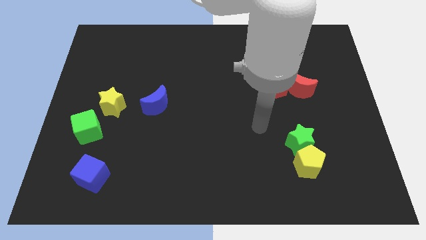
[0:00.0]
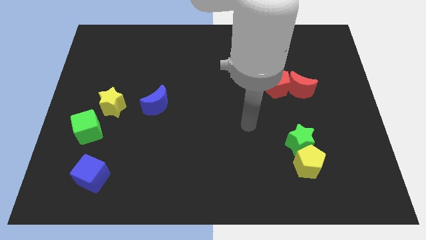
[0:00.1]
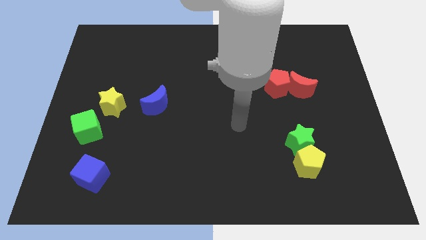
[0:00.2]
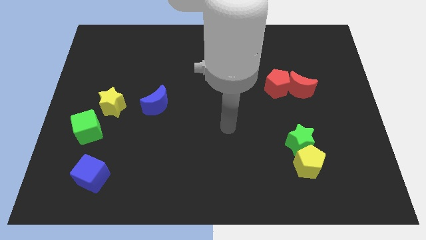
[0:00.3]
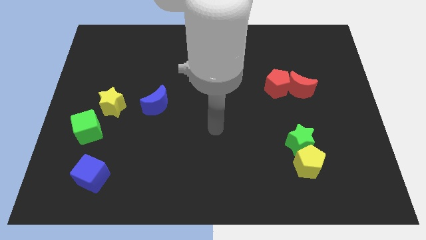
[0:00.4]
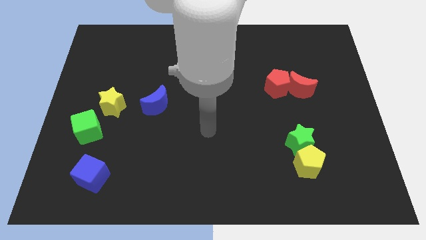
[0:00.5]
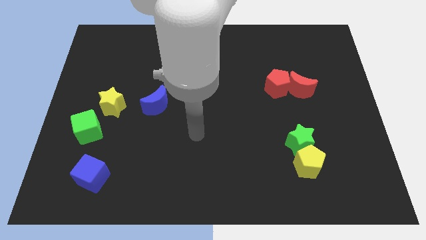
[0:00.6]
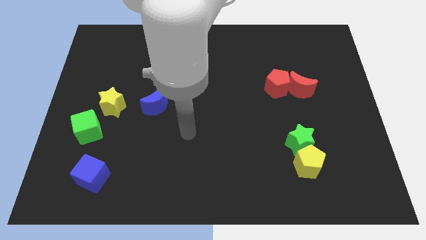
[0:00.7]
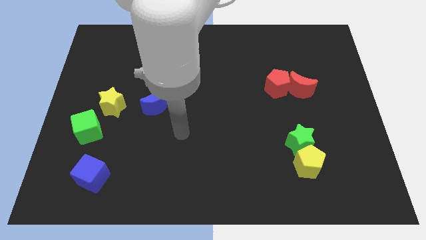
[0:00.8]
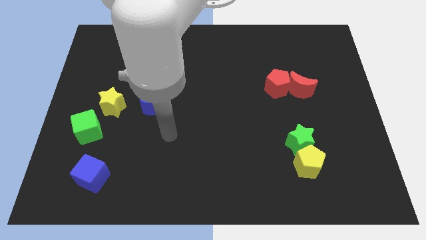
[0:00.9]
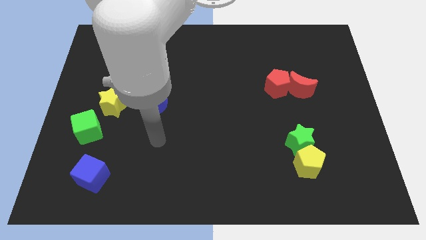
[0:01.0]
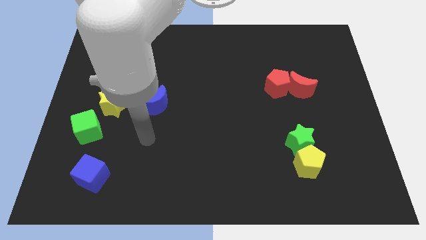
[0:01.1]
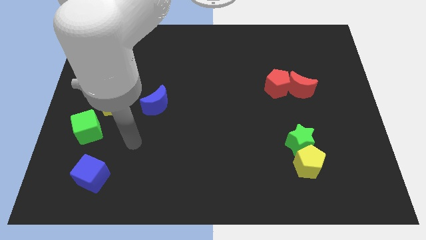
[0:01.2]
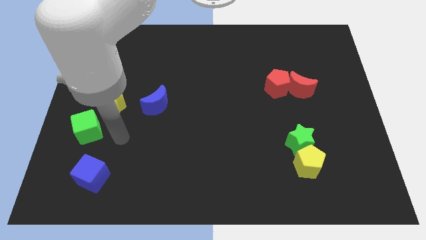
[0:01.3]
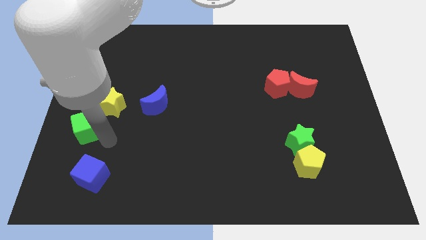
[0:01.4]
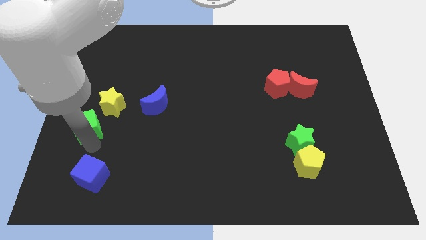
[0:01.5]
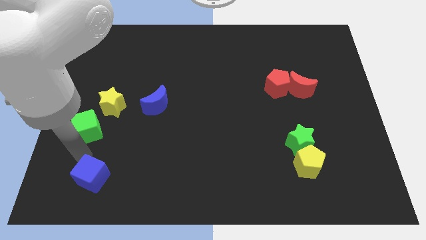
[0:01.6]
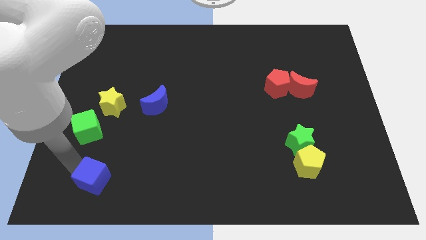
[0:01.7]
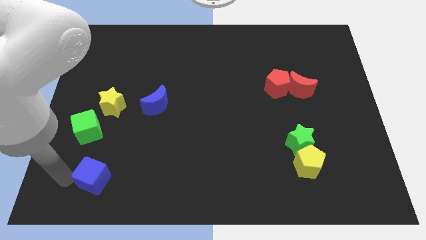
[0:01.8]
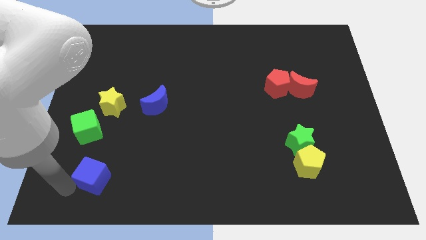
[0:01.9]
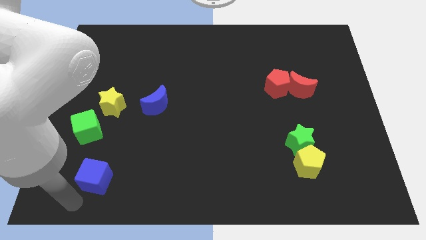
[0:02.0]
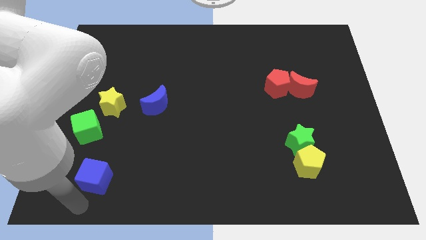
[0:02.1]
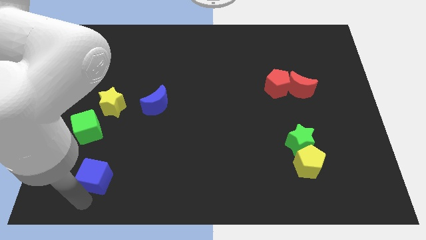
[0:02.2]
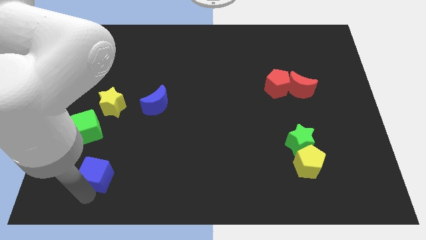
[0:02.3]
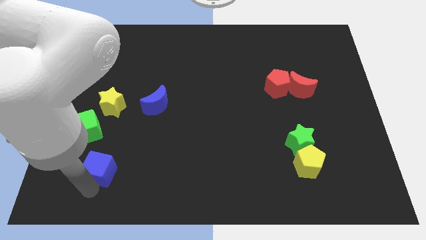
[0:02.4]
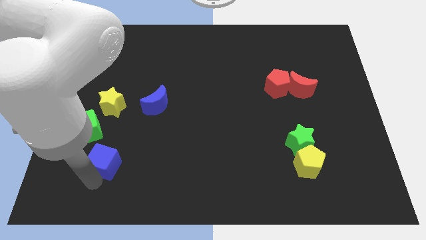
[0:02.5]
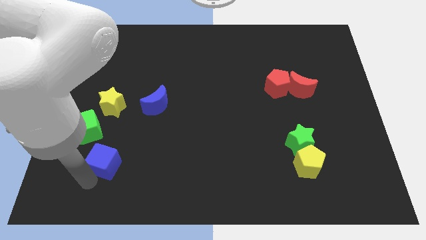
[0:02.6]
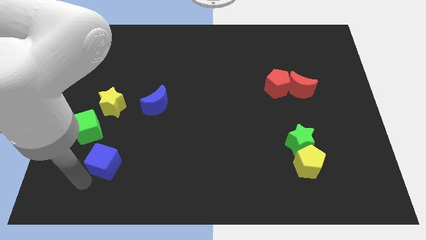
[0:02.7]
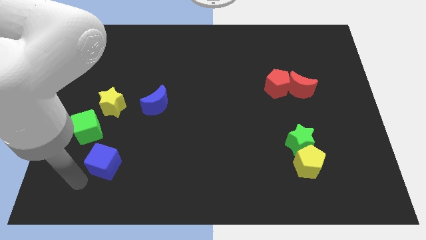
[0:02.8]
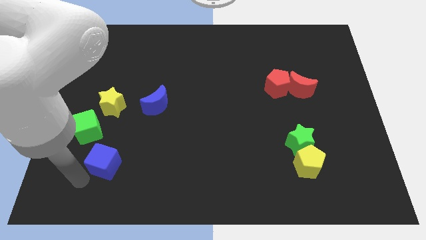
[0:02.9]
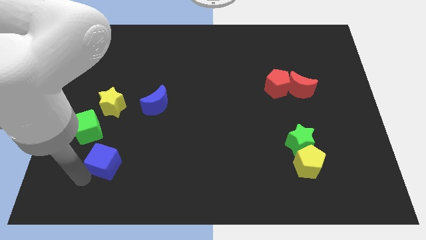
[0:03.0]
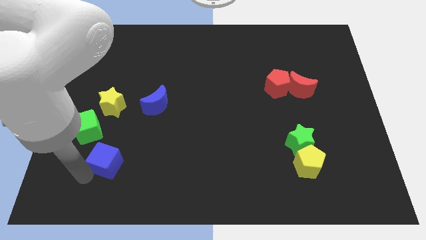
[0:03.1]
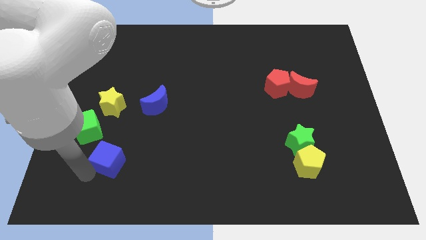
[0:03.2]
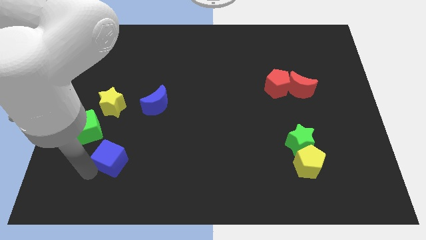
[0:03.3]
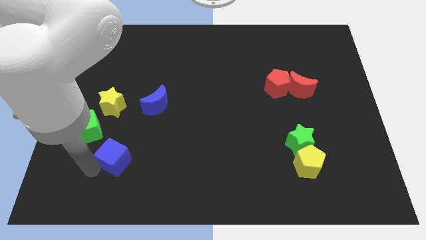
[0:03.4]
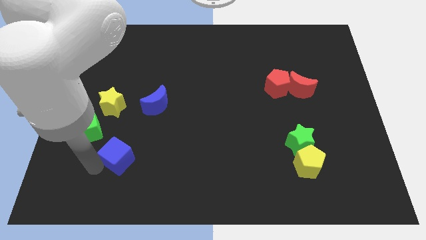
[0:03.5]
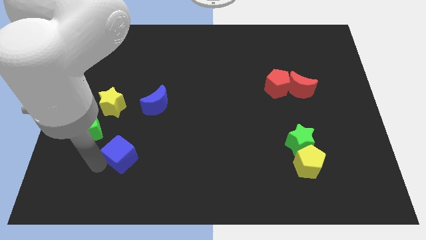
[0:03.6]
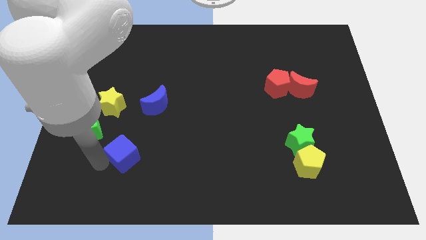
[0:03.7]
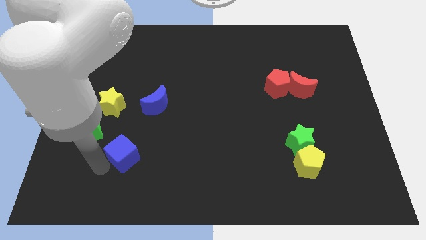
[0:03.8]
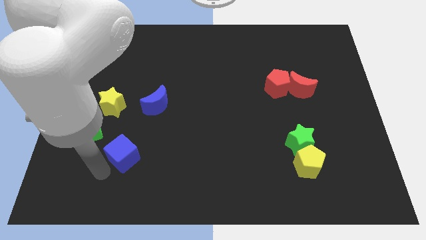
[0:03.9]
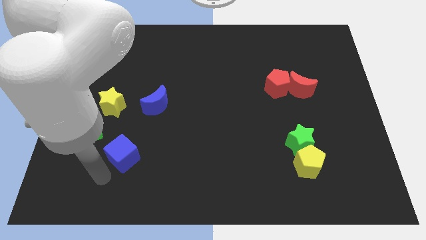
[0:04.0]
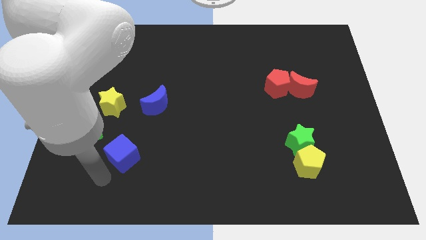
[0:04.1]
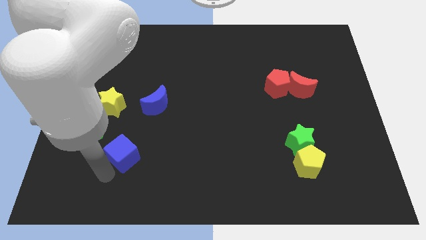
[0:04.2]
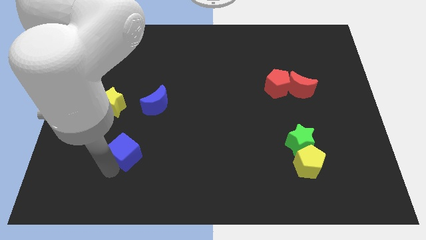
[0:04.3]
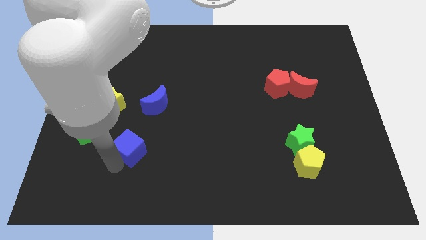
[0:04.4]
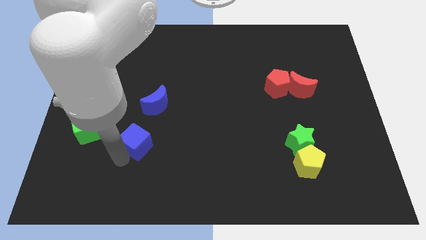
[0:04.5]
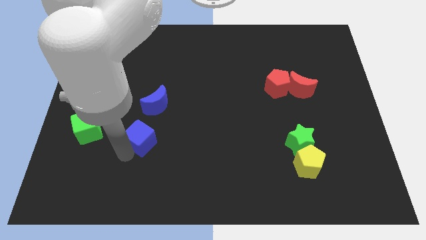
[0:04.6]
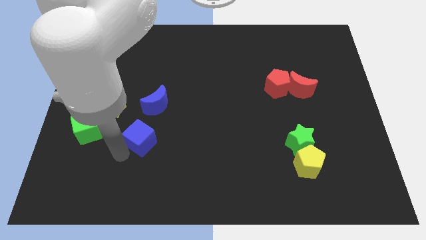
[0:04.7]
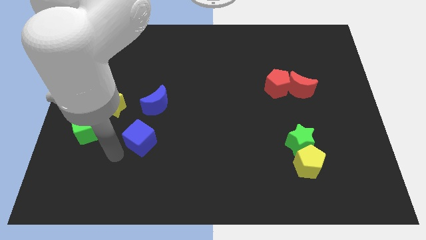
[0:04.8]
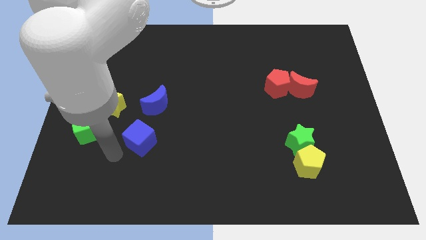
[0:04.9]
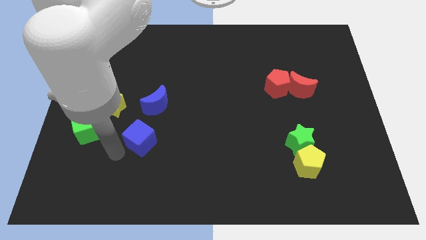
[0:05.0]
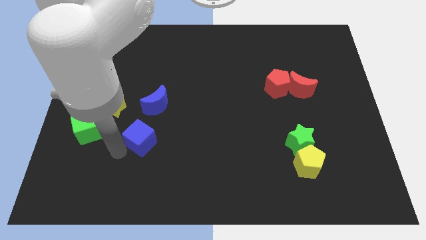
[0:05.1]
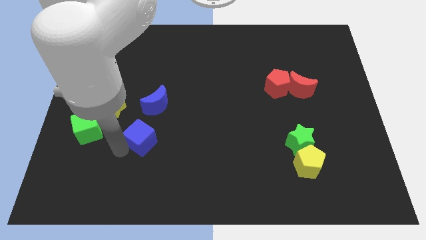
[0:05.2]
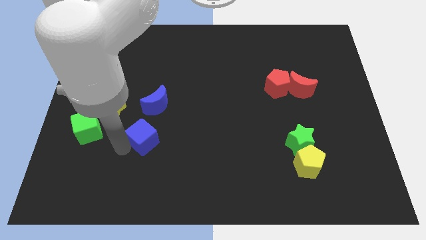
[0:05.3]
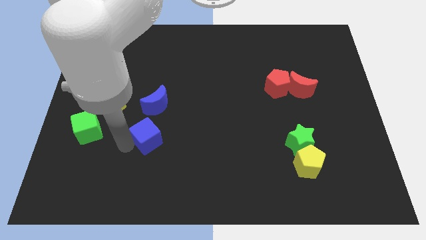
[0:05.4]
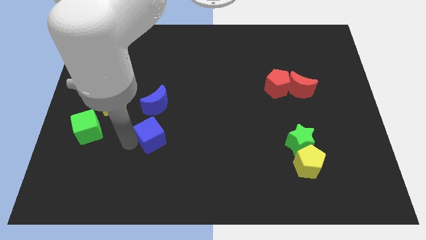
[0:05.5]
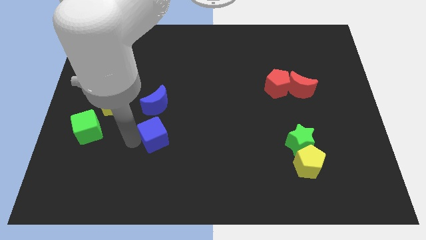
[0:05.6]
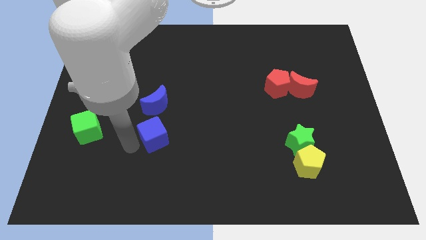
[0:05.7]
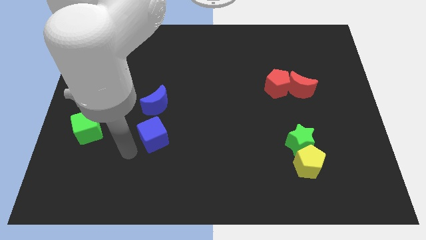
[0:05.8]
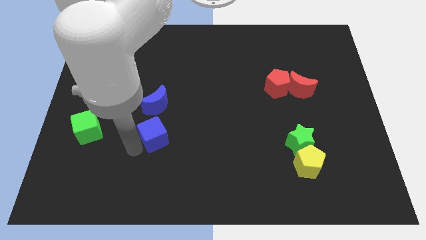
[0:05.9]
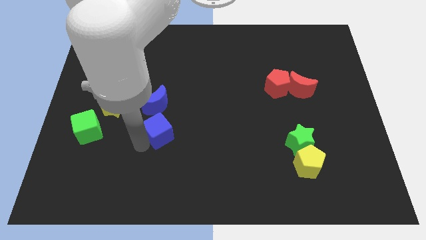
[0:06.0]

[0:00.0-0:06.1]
push the blue cube diagonally down and to the right of the blue moon

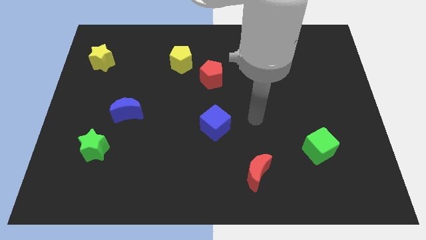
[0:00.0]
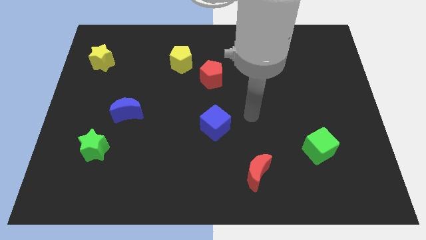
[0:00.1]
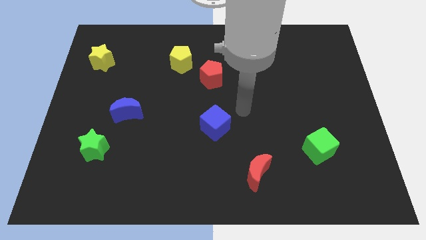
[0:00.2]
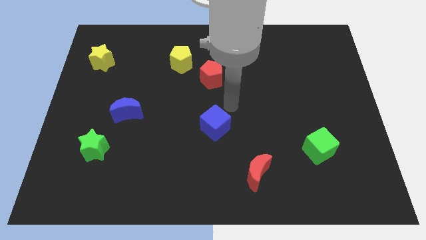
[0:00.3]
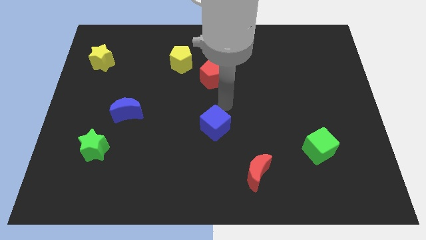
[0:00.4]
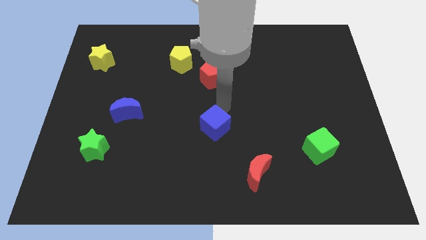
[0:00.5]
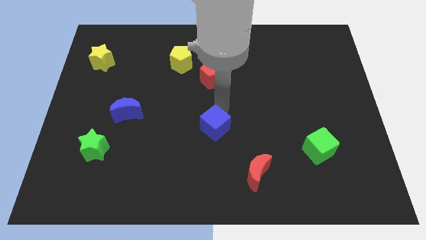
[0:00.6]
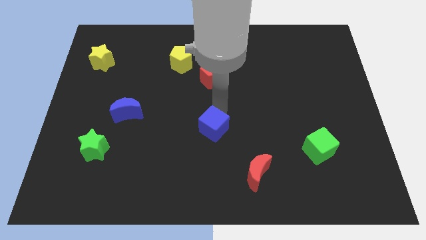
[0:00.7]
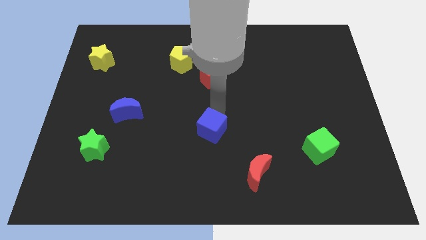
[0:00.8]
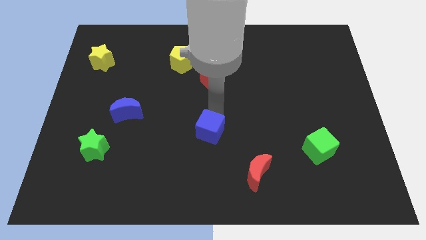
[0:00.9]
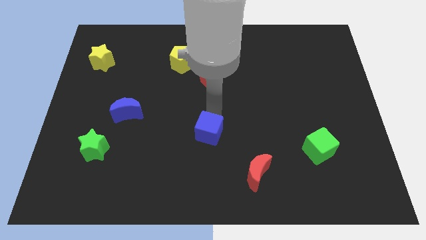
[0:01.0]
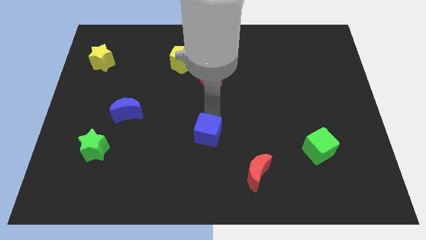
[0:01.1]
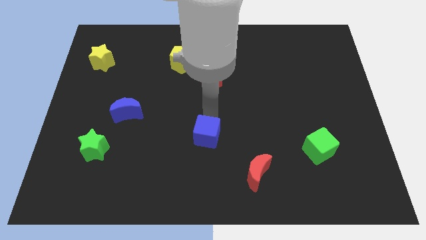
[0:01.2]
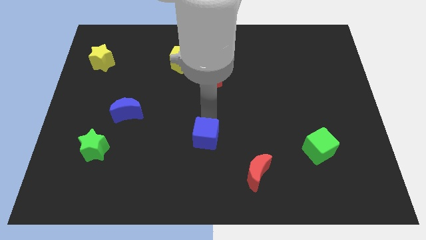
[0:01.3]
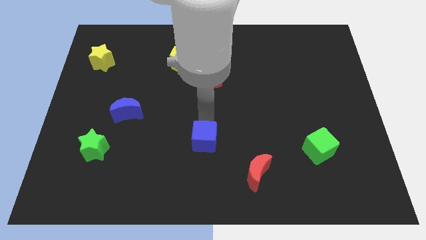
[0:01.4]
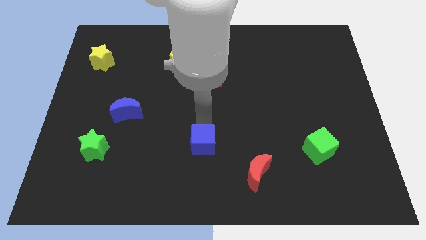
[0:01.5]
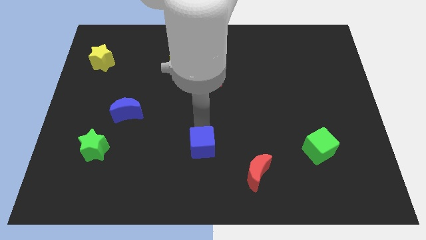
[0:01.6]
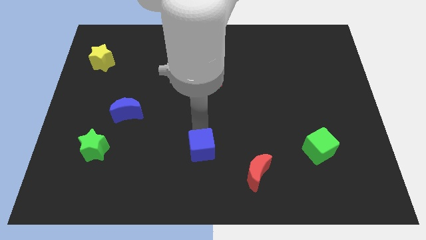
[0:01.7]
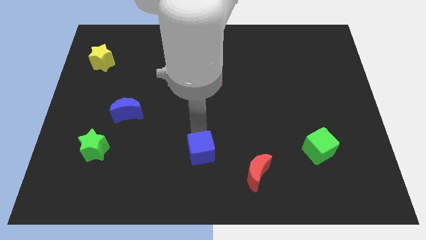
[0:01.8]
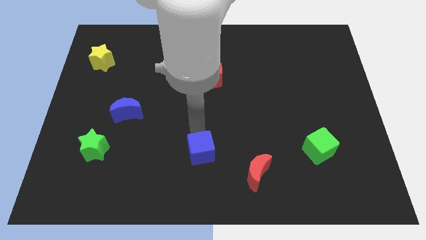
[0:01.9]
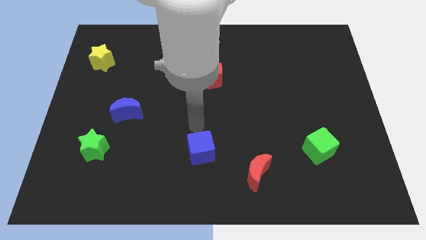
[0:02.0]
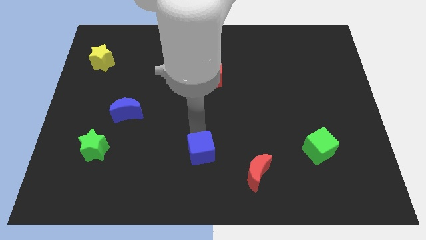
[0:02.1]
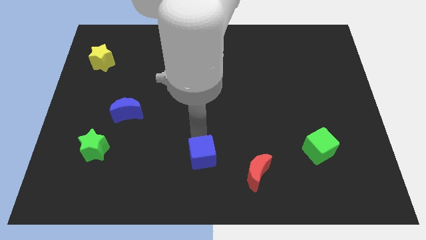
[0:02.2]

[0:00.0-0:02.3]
push the blue cube to the left side of the red moon
